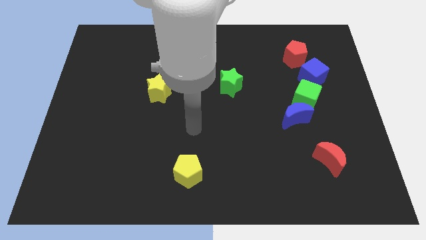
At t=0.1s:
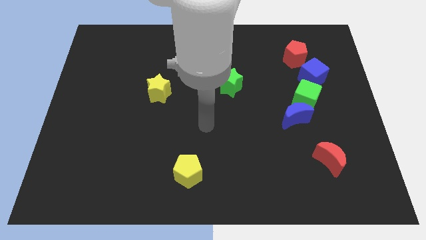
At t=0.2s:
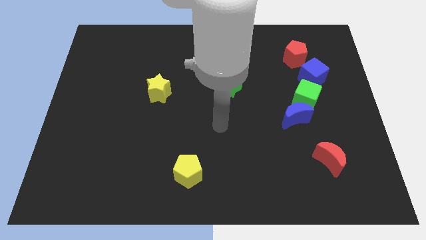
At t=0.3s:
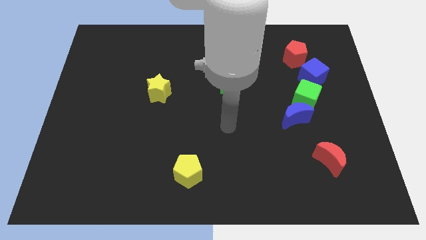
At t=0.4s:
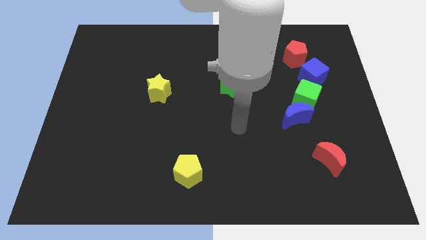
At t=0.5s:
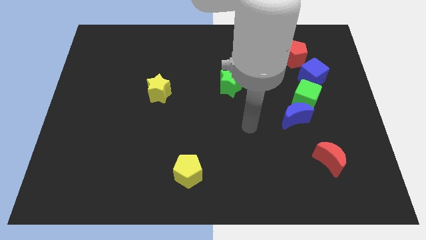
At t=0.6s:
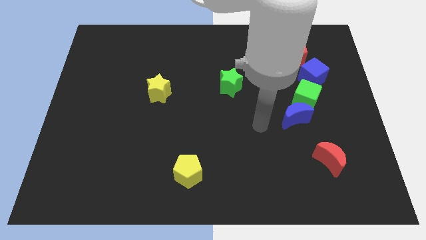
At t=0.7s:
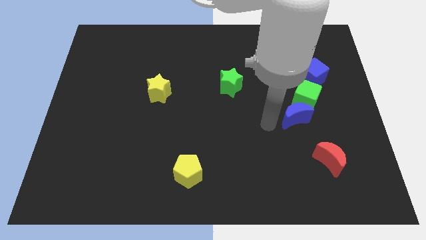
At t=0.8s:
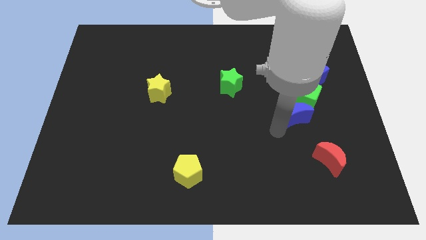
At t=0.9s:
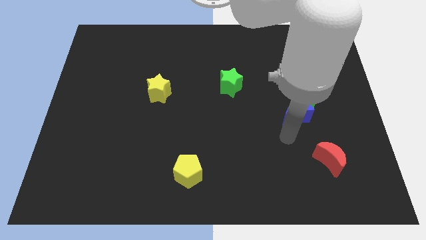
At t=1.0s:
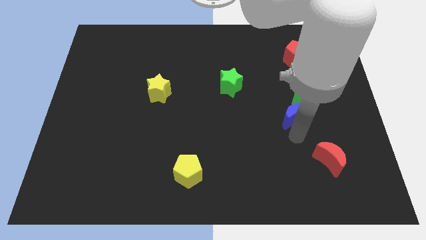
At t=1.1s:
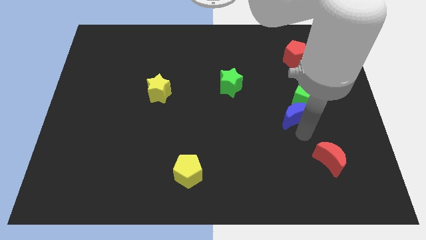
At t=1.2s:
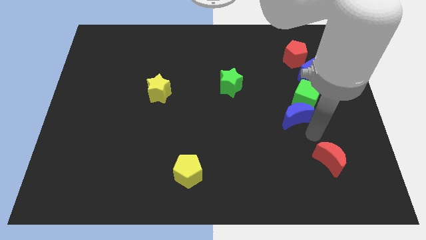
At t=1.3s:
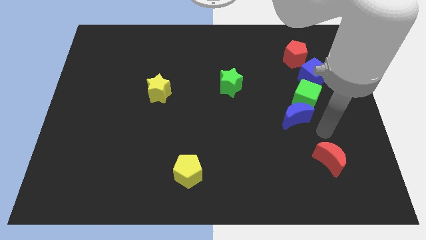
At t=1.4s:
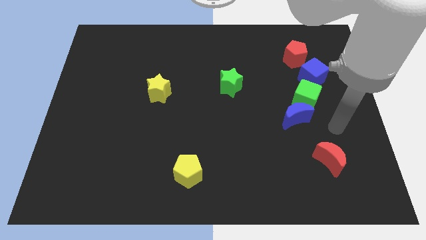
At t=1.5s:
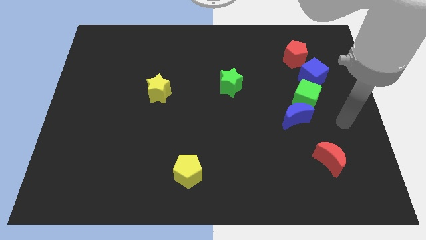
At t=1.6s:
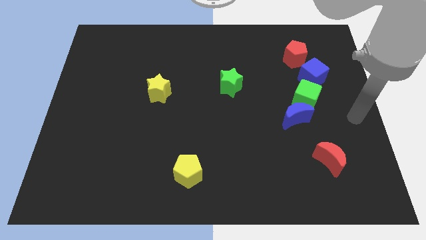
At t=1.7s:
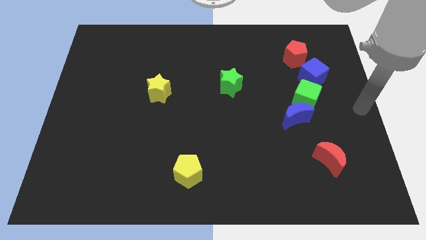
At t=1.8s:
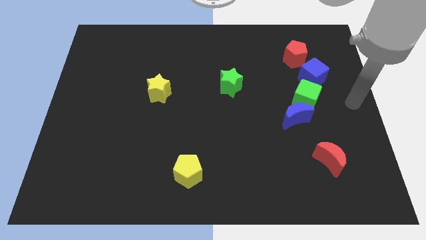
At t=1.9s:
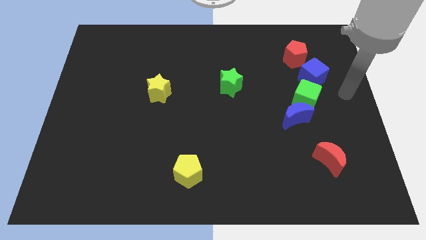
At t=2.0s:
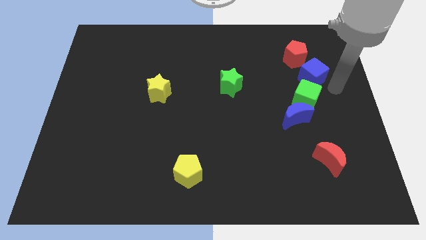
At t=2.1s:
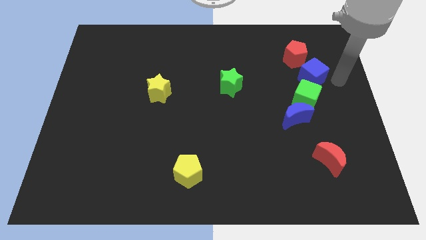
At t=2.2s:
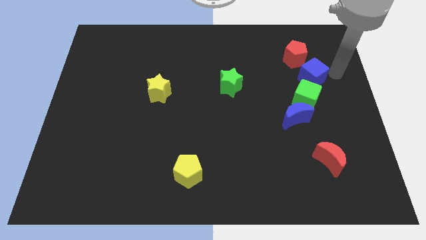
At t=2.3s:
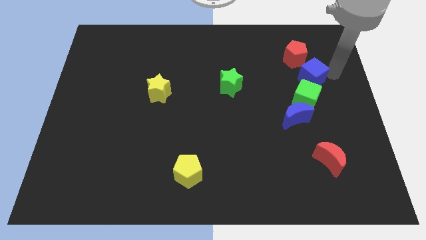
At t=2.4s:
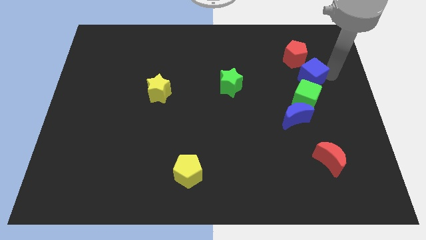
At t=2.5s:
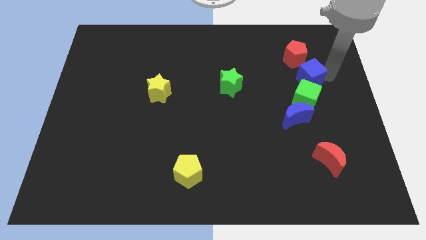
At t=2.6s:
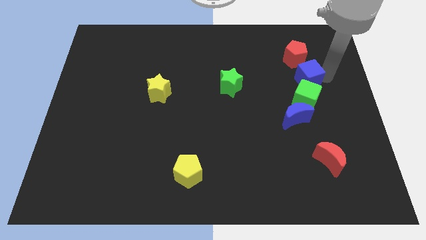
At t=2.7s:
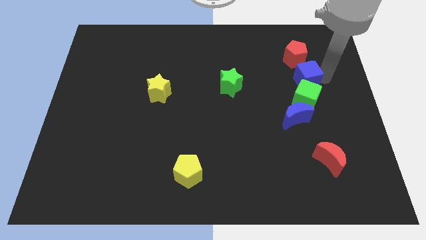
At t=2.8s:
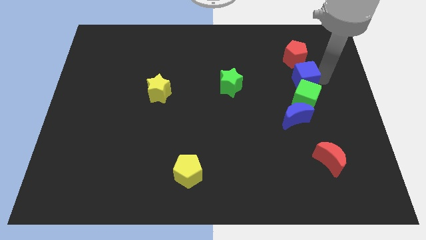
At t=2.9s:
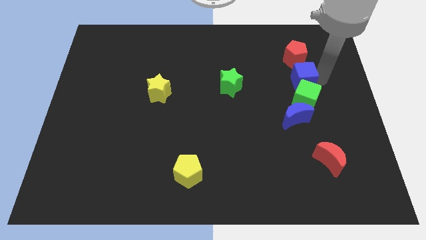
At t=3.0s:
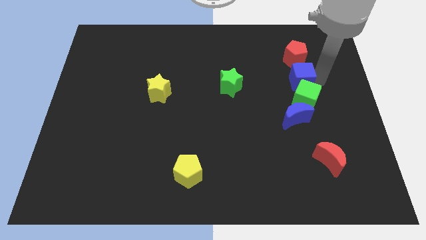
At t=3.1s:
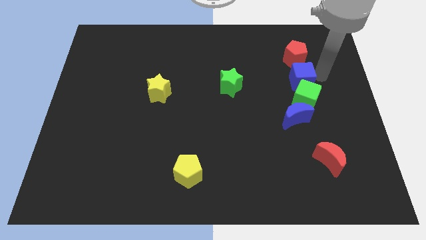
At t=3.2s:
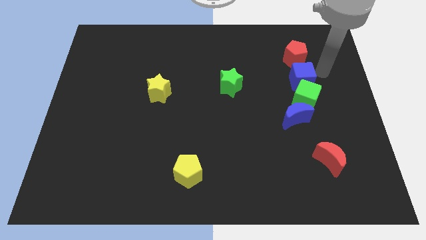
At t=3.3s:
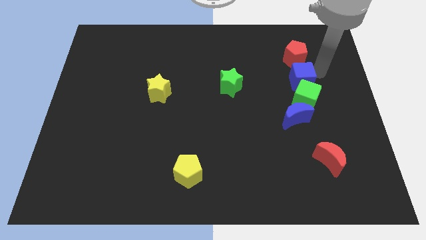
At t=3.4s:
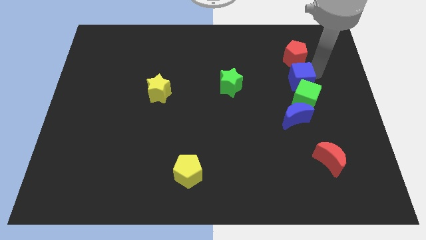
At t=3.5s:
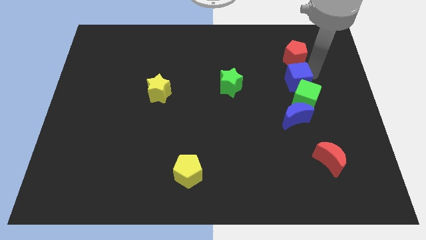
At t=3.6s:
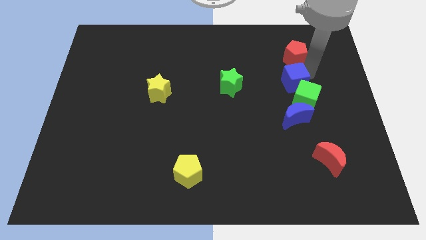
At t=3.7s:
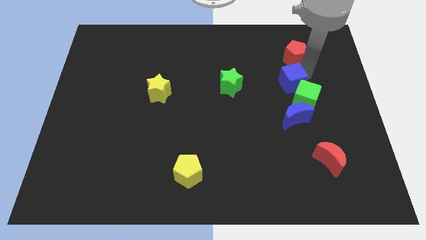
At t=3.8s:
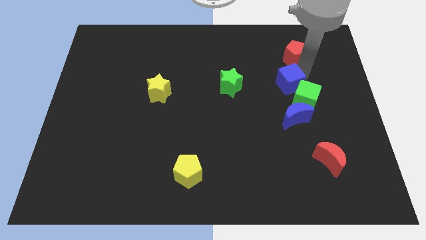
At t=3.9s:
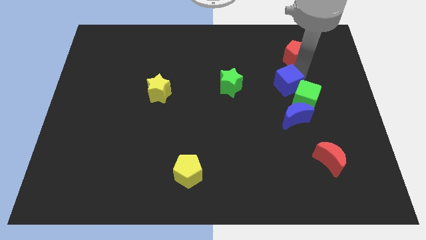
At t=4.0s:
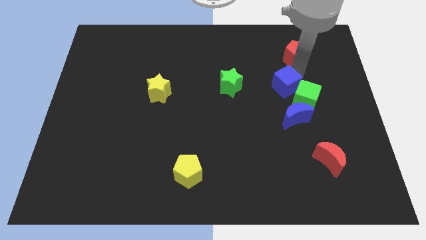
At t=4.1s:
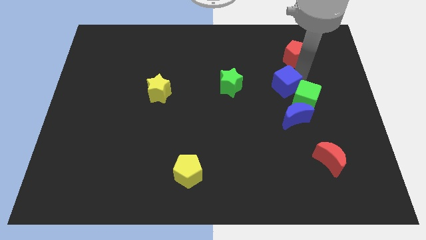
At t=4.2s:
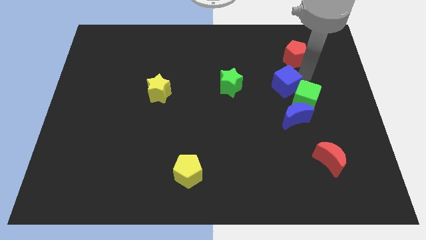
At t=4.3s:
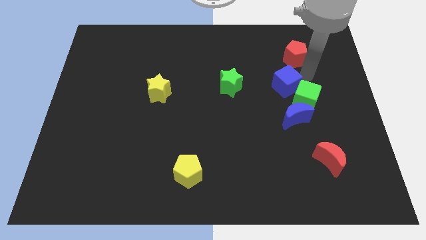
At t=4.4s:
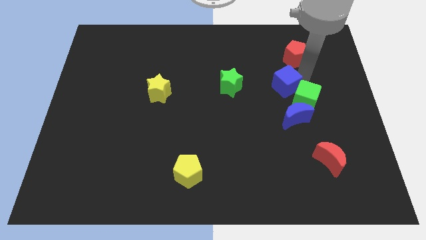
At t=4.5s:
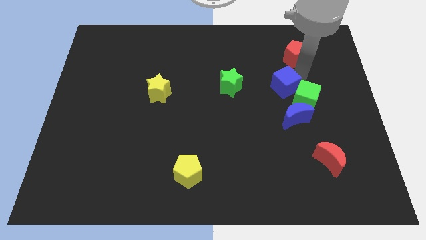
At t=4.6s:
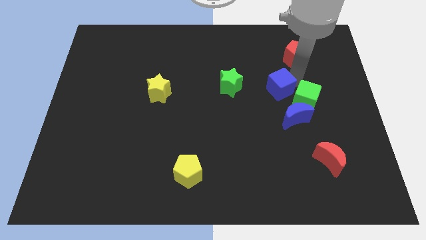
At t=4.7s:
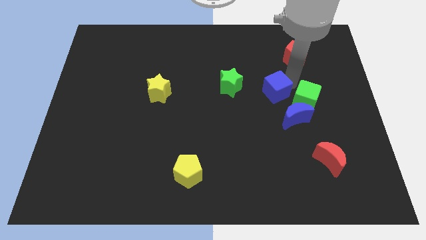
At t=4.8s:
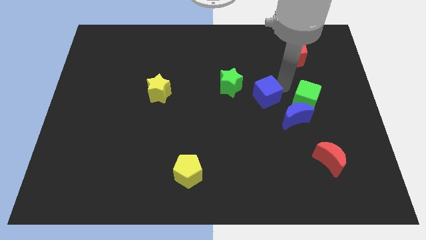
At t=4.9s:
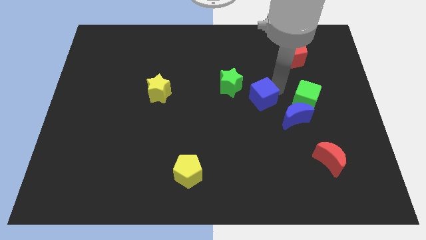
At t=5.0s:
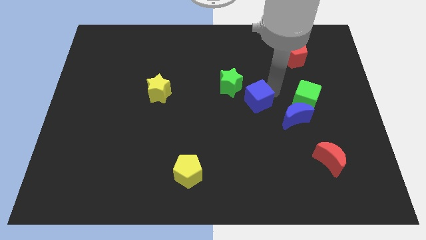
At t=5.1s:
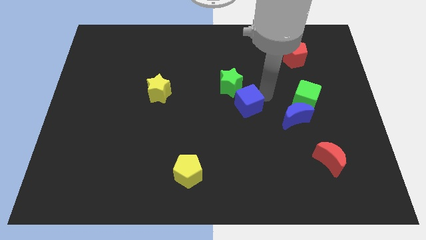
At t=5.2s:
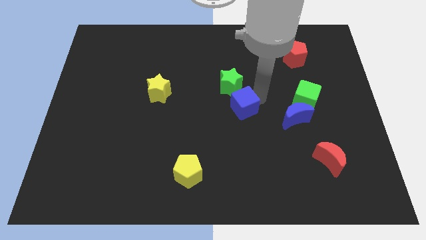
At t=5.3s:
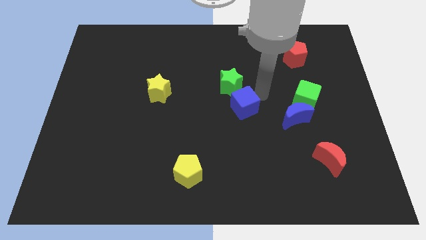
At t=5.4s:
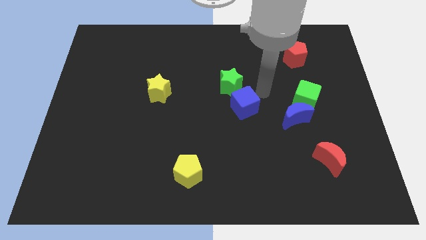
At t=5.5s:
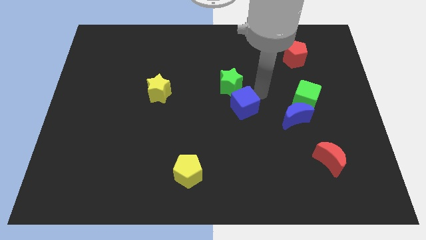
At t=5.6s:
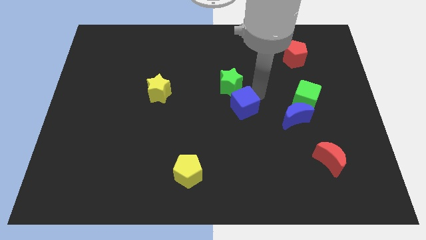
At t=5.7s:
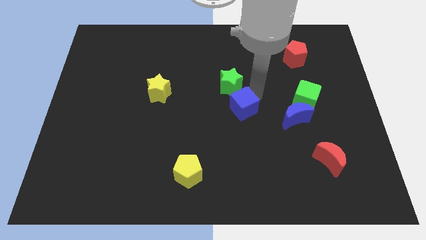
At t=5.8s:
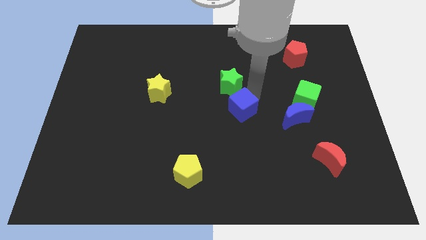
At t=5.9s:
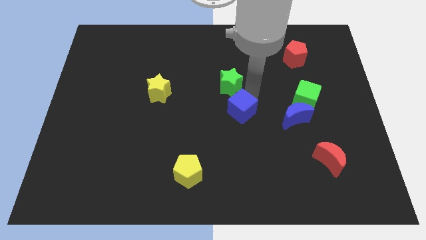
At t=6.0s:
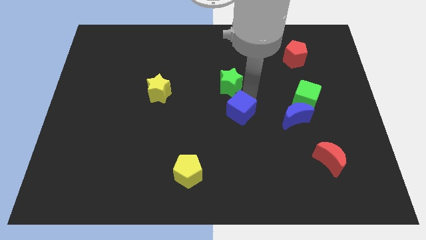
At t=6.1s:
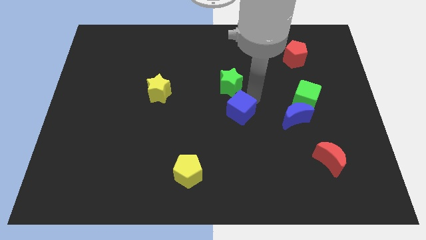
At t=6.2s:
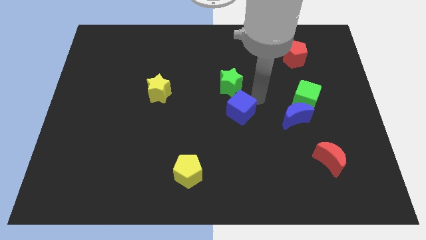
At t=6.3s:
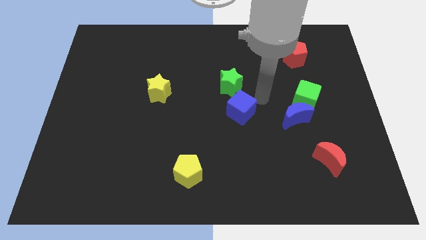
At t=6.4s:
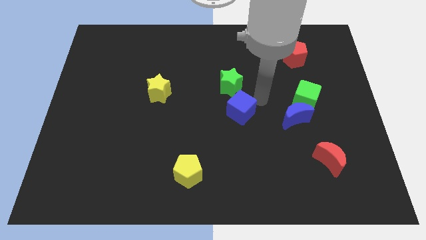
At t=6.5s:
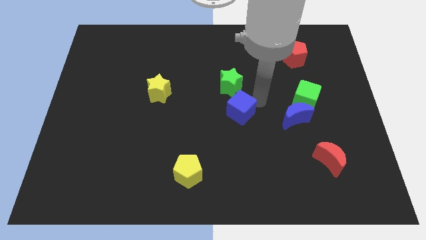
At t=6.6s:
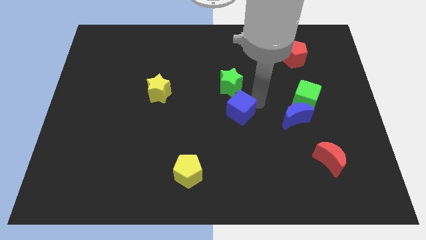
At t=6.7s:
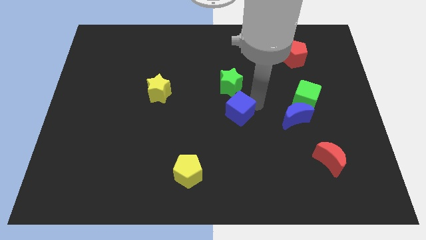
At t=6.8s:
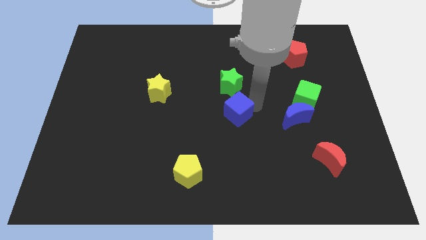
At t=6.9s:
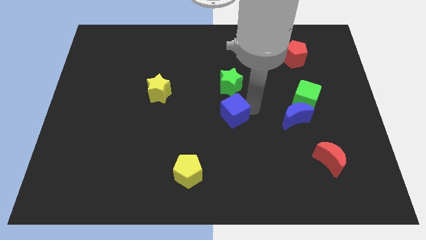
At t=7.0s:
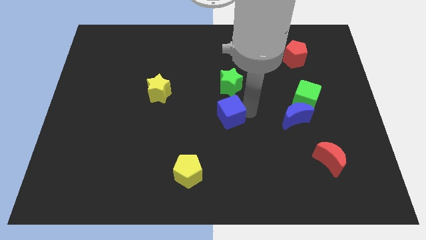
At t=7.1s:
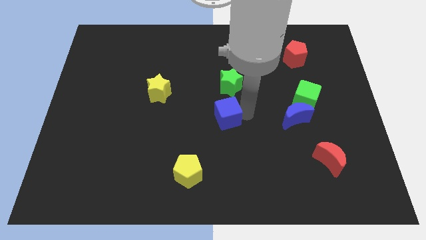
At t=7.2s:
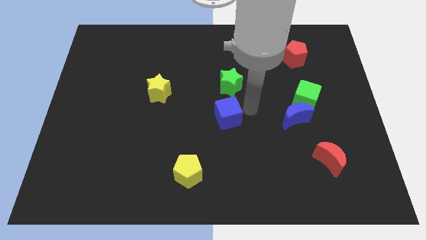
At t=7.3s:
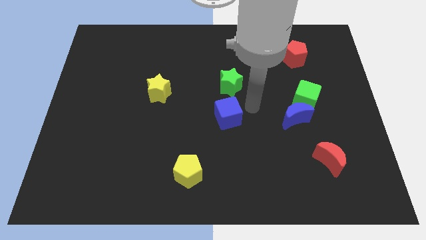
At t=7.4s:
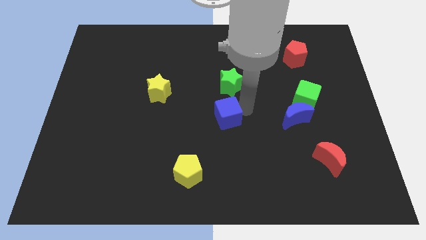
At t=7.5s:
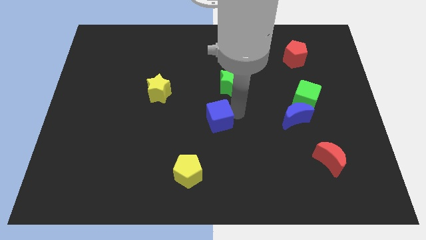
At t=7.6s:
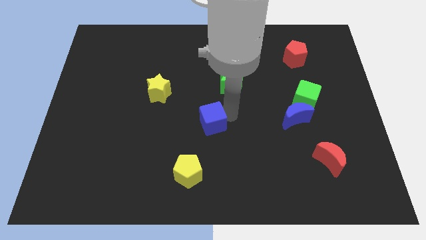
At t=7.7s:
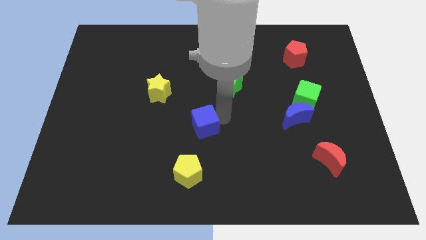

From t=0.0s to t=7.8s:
slide the blue cube above the yellow pentagon
